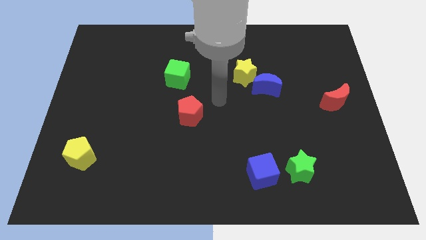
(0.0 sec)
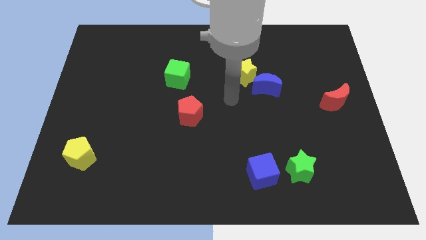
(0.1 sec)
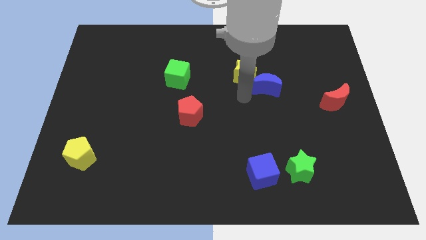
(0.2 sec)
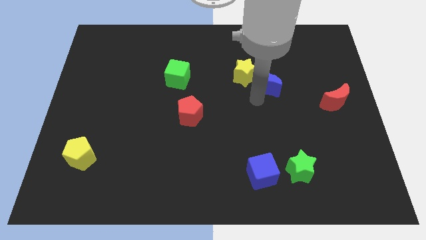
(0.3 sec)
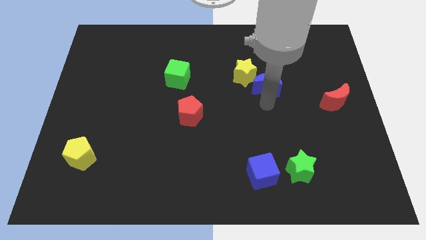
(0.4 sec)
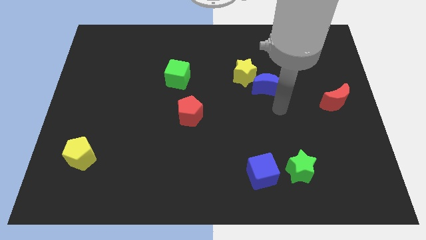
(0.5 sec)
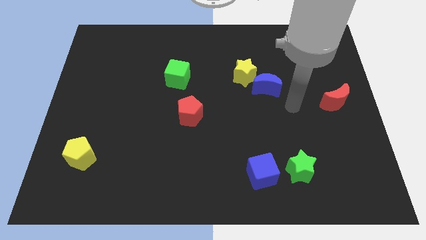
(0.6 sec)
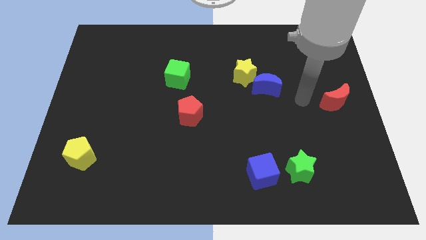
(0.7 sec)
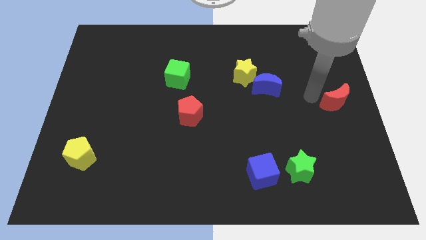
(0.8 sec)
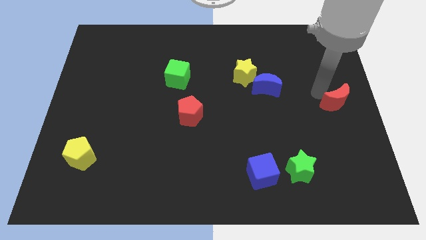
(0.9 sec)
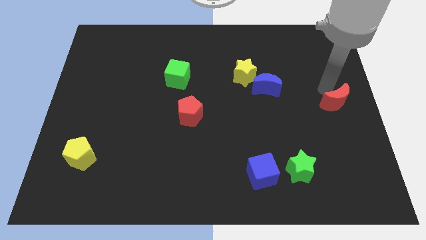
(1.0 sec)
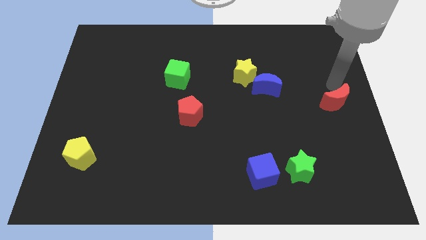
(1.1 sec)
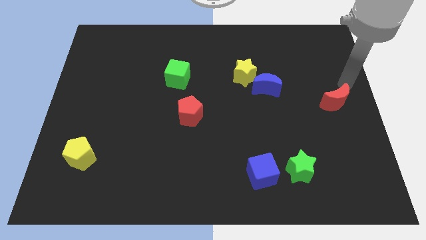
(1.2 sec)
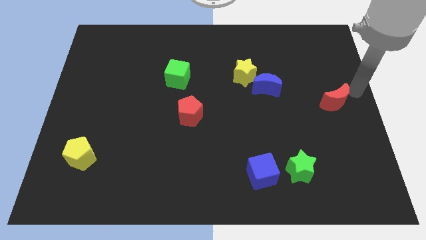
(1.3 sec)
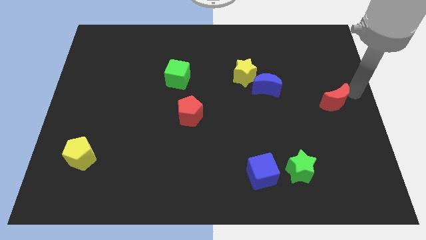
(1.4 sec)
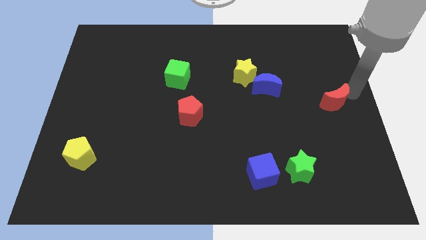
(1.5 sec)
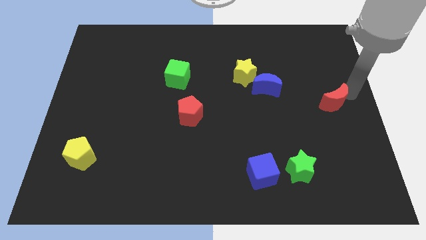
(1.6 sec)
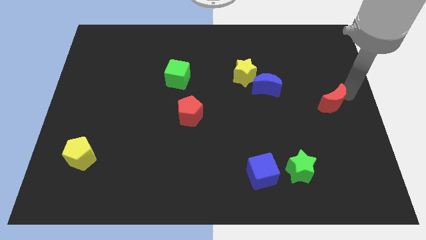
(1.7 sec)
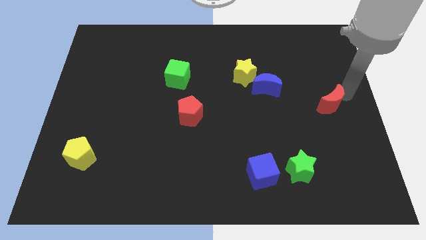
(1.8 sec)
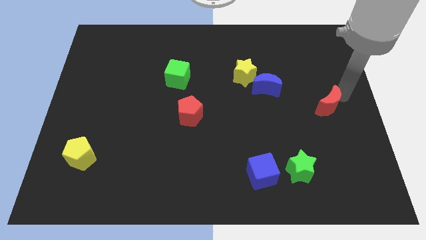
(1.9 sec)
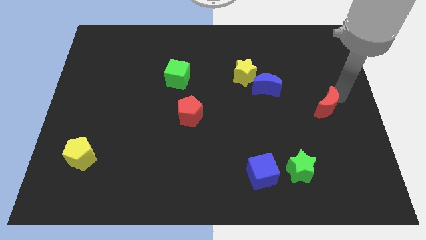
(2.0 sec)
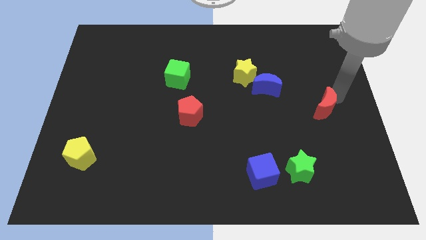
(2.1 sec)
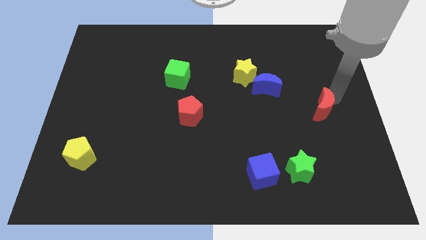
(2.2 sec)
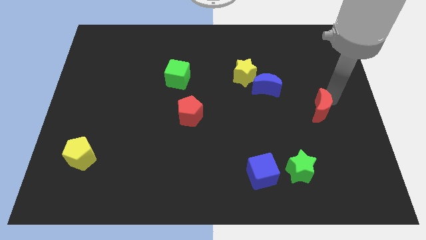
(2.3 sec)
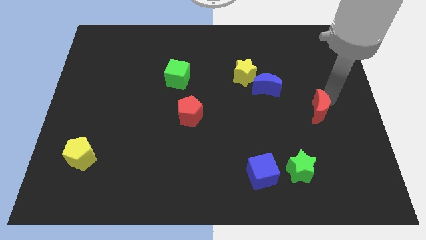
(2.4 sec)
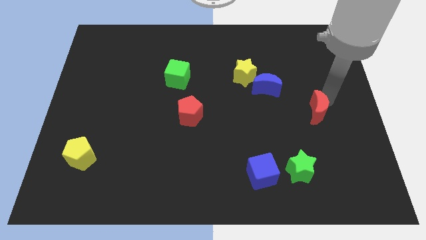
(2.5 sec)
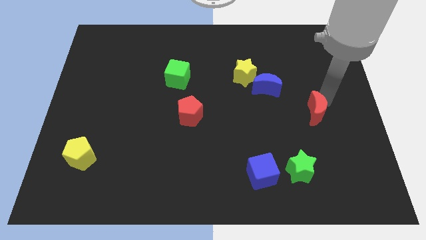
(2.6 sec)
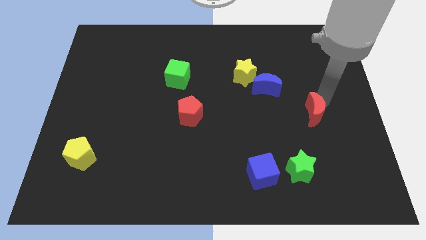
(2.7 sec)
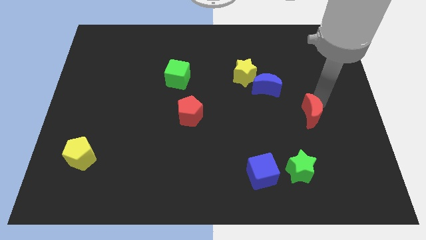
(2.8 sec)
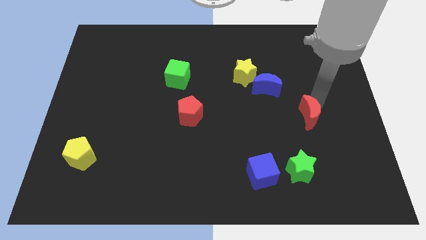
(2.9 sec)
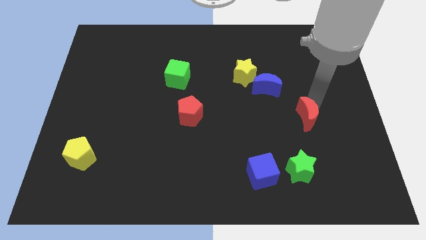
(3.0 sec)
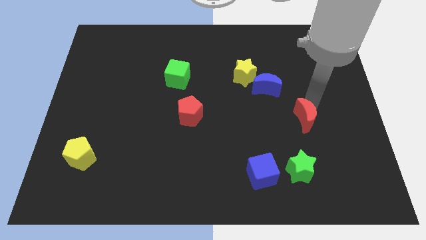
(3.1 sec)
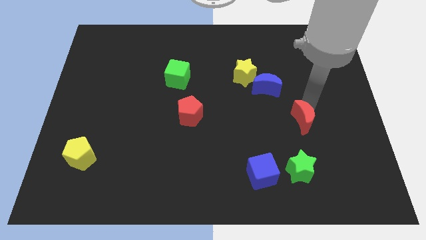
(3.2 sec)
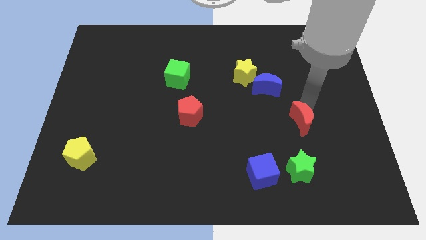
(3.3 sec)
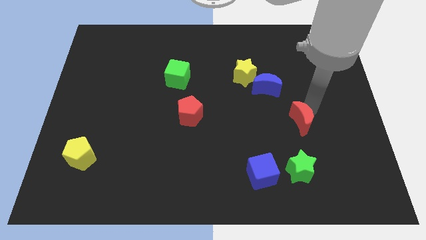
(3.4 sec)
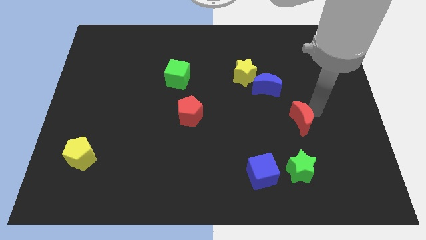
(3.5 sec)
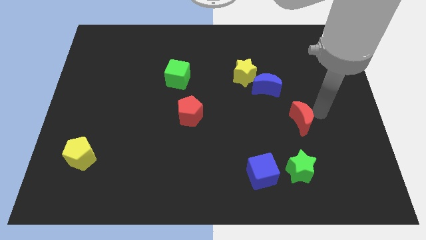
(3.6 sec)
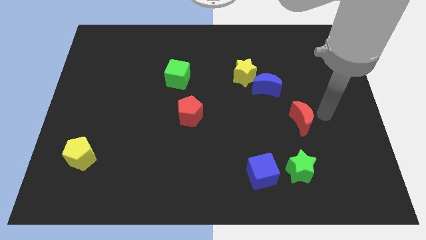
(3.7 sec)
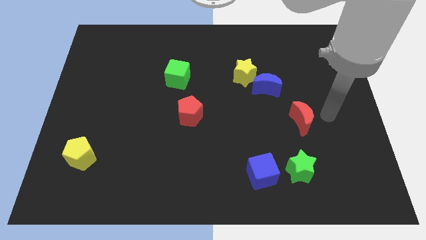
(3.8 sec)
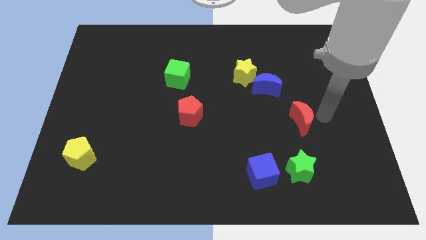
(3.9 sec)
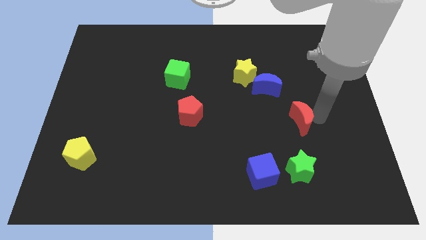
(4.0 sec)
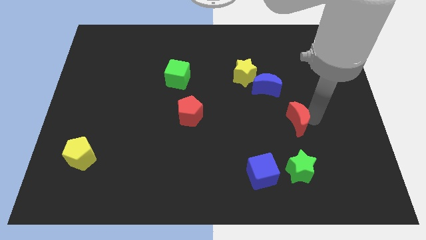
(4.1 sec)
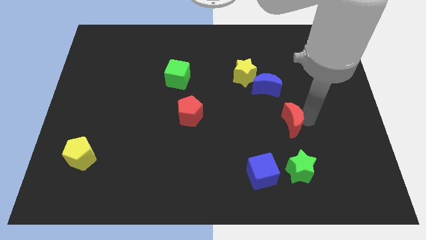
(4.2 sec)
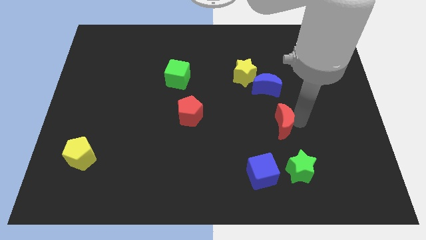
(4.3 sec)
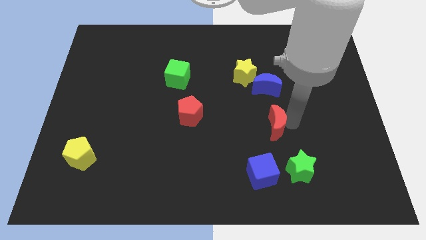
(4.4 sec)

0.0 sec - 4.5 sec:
push the red moon above the blue cube

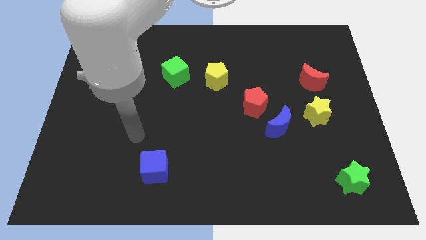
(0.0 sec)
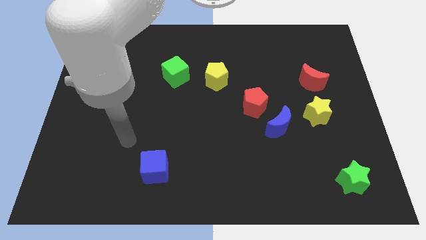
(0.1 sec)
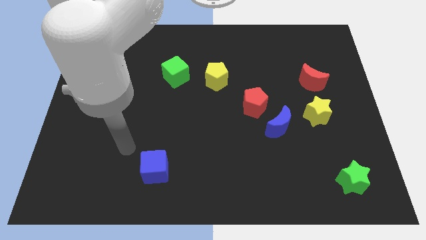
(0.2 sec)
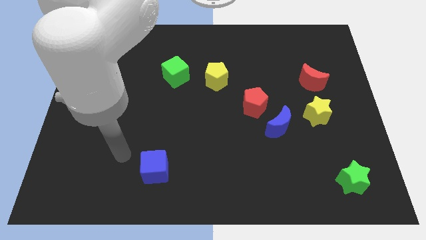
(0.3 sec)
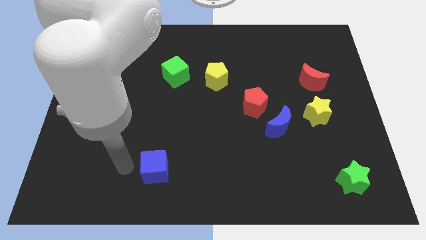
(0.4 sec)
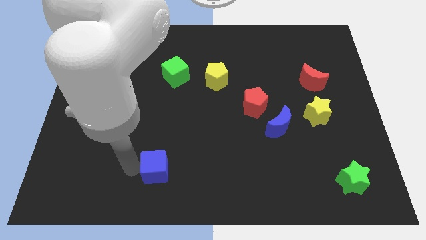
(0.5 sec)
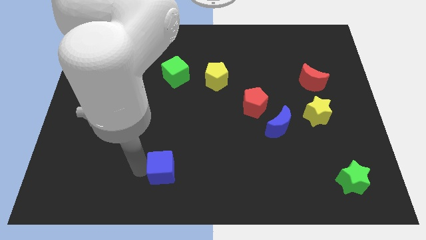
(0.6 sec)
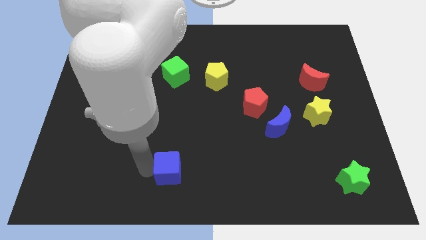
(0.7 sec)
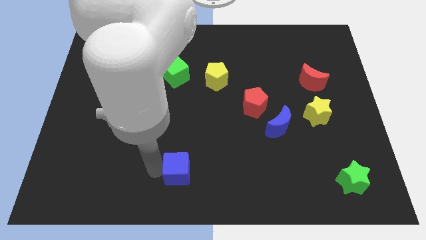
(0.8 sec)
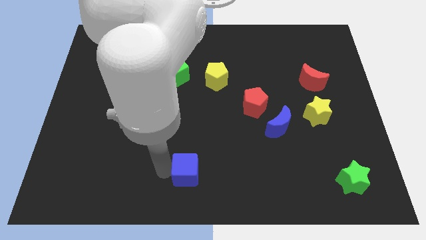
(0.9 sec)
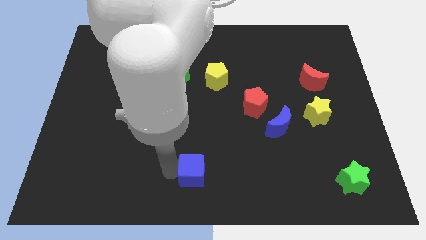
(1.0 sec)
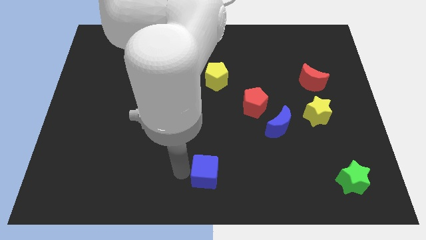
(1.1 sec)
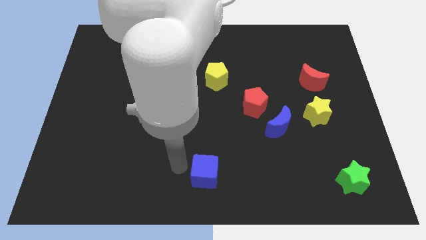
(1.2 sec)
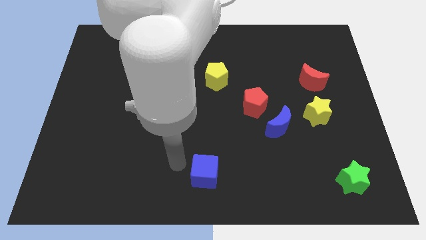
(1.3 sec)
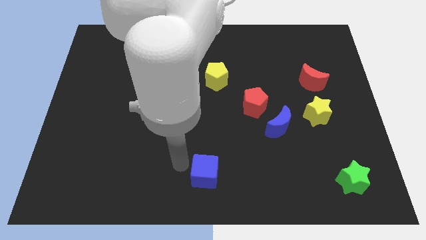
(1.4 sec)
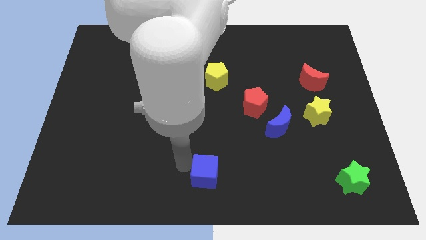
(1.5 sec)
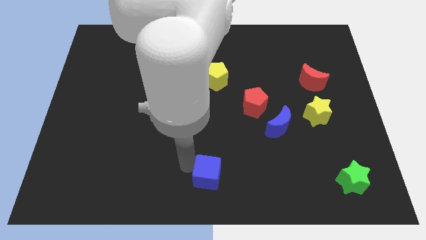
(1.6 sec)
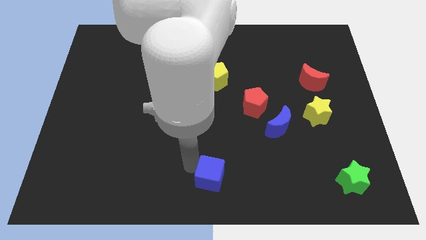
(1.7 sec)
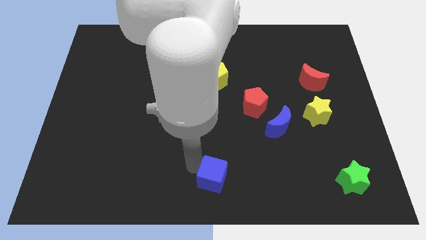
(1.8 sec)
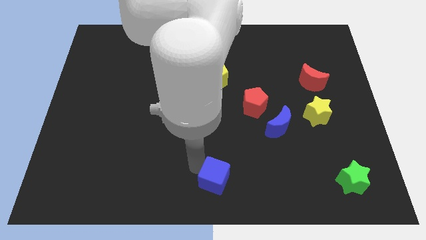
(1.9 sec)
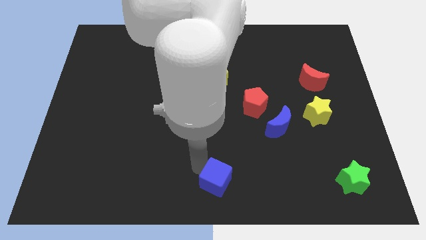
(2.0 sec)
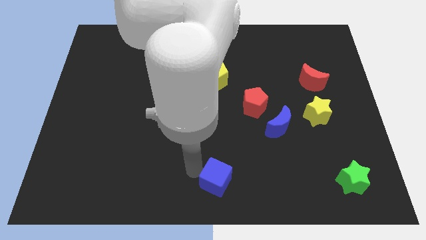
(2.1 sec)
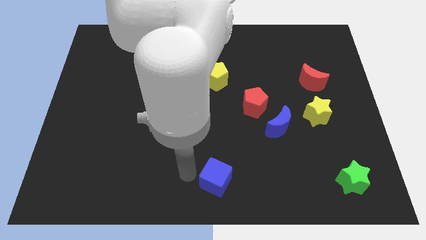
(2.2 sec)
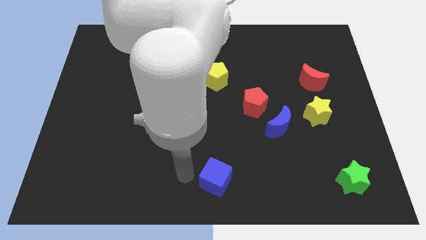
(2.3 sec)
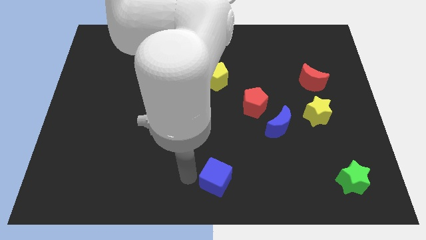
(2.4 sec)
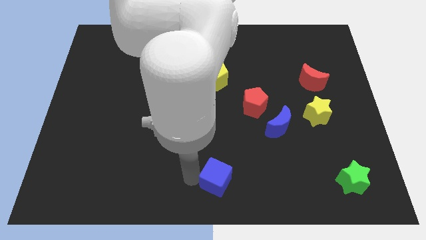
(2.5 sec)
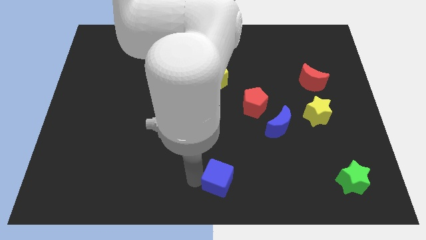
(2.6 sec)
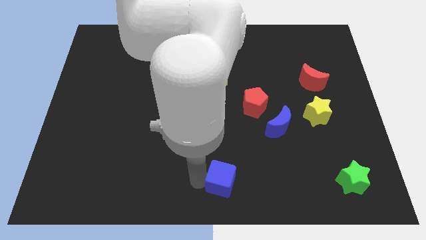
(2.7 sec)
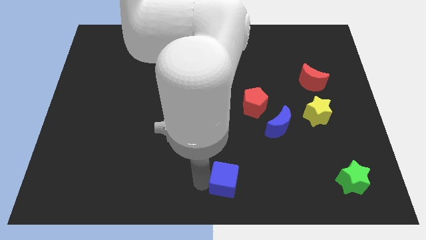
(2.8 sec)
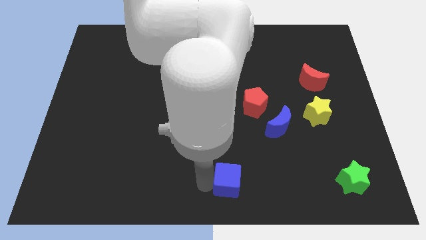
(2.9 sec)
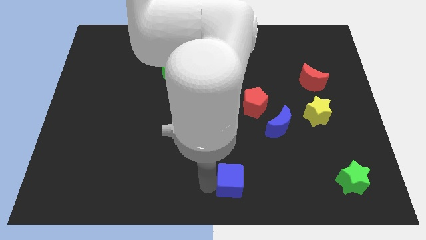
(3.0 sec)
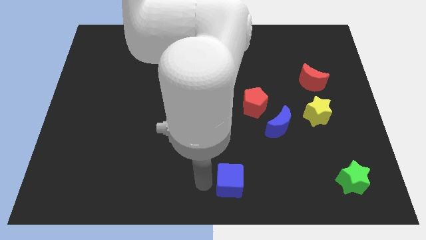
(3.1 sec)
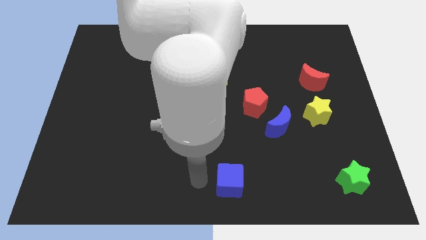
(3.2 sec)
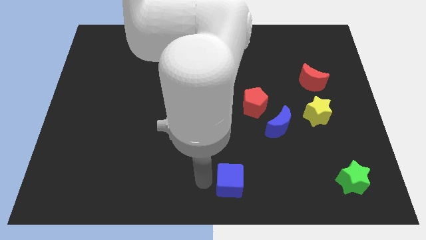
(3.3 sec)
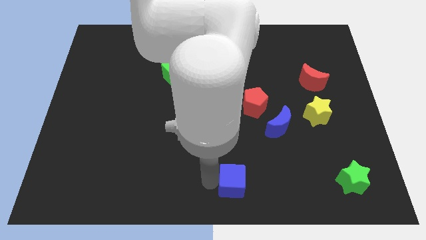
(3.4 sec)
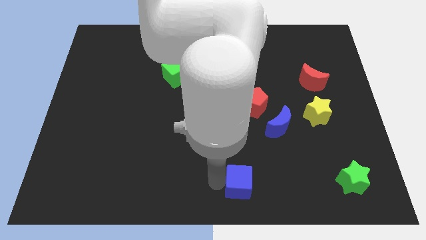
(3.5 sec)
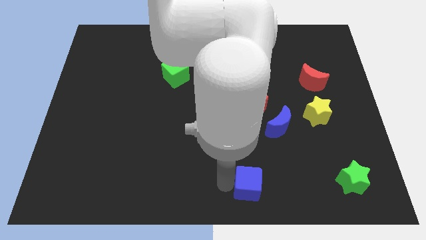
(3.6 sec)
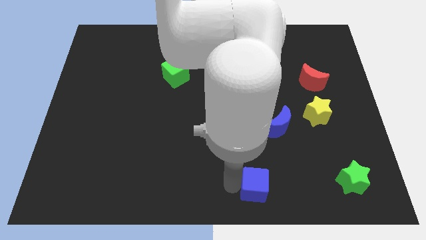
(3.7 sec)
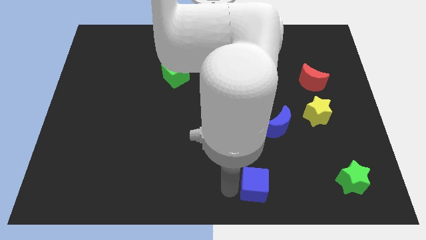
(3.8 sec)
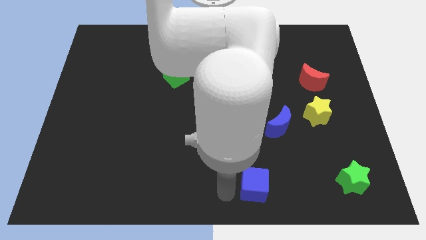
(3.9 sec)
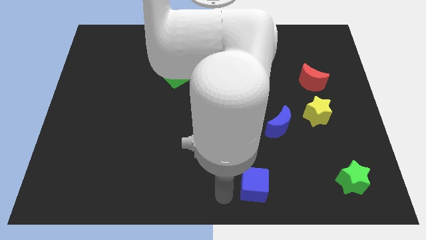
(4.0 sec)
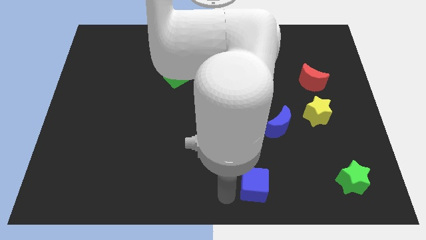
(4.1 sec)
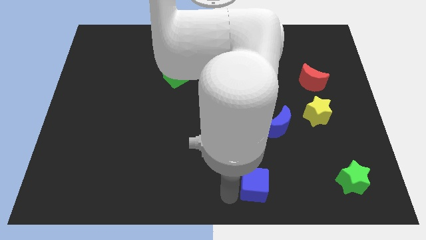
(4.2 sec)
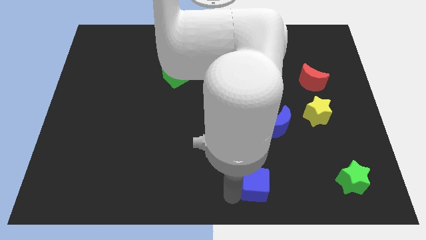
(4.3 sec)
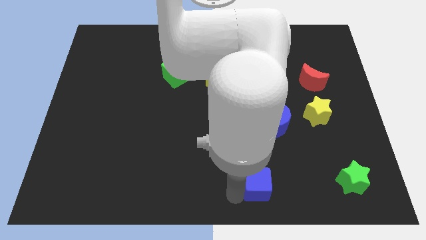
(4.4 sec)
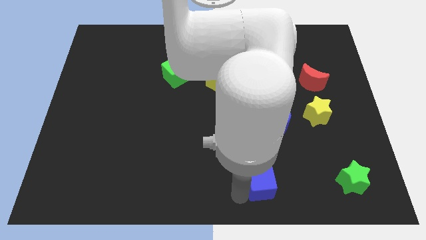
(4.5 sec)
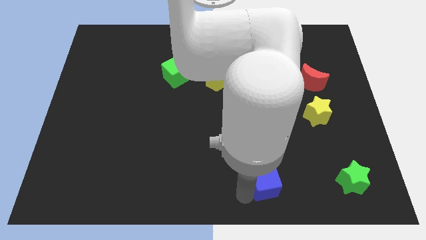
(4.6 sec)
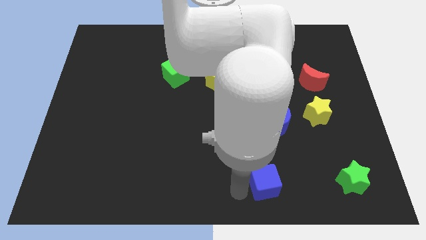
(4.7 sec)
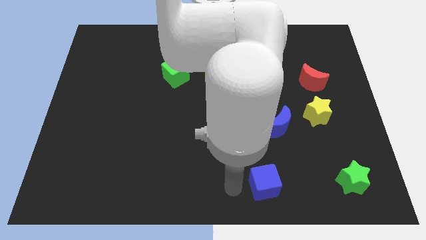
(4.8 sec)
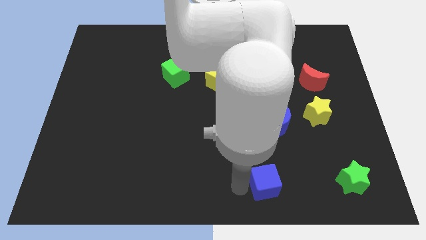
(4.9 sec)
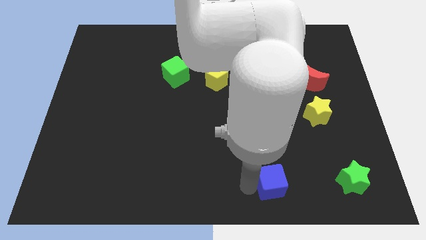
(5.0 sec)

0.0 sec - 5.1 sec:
slide the blue cube just left of the green star
